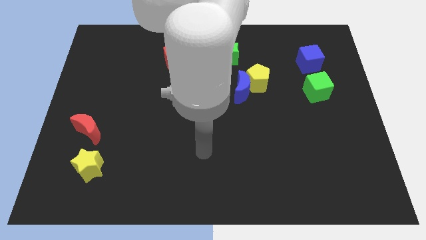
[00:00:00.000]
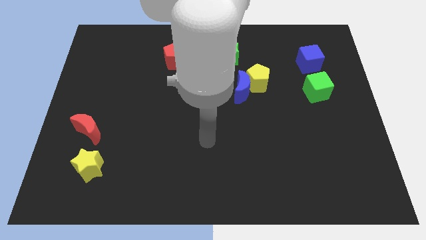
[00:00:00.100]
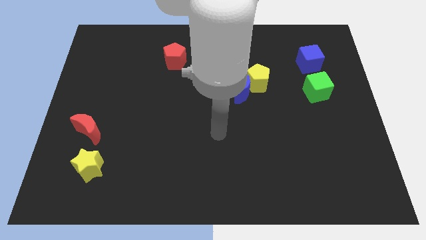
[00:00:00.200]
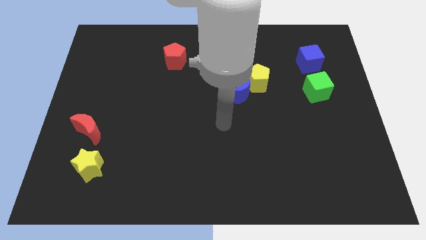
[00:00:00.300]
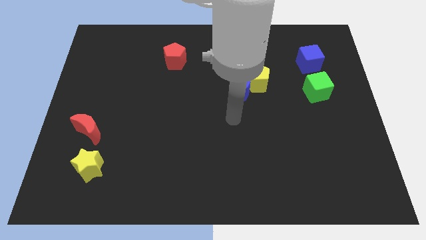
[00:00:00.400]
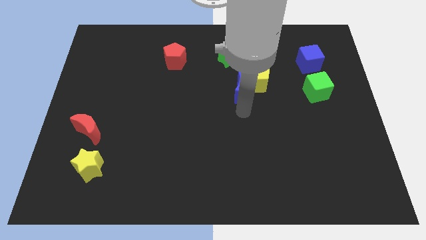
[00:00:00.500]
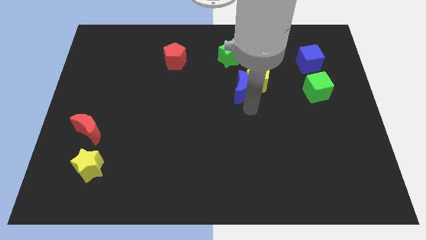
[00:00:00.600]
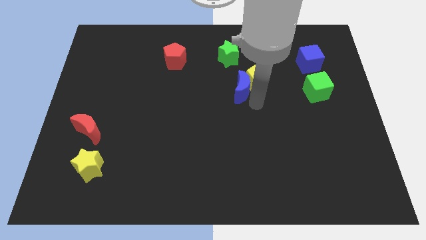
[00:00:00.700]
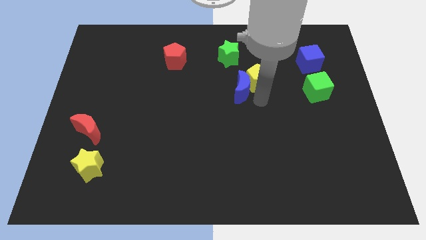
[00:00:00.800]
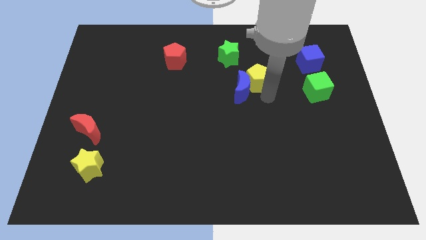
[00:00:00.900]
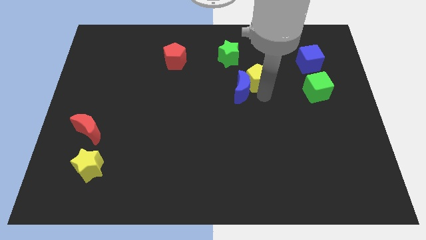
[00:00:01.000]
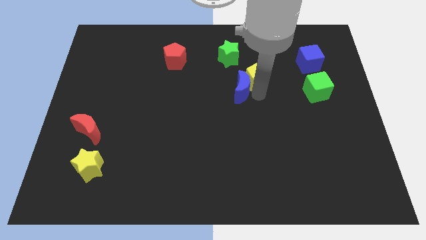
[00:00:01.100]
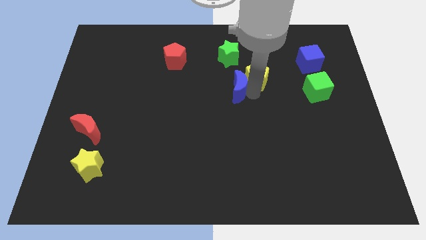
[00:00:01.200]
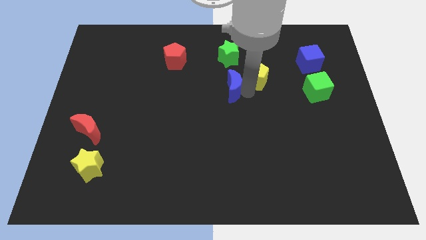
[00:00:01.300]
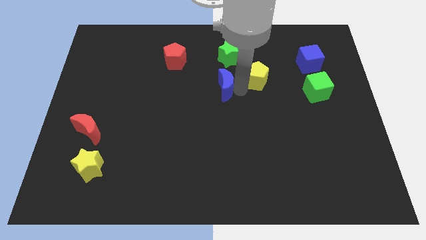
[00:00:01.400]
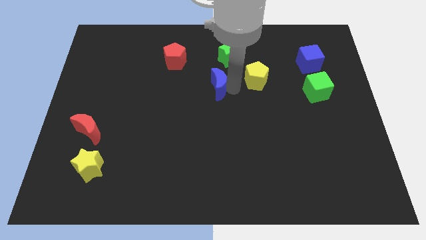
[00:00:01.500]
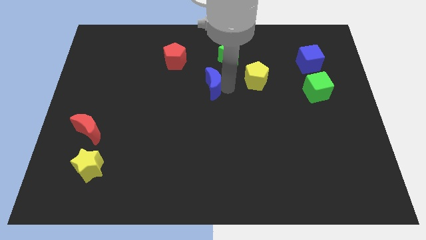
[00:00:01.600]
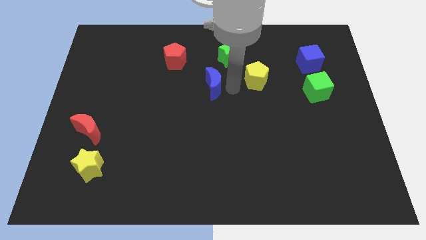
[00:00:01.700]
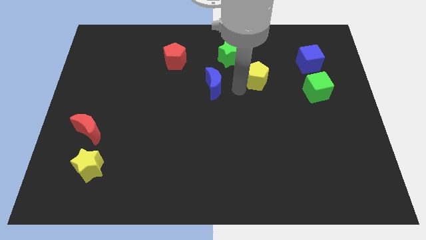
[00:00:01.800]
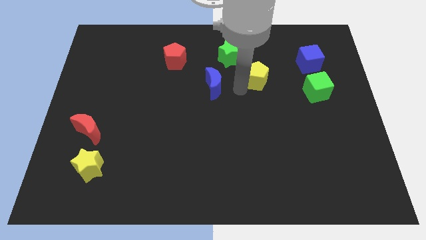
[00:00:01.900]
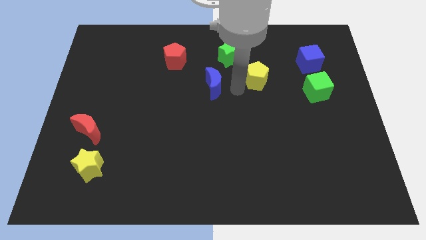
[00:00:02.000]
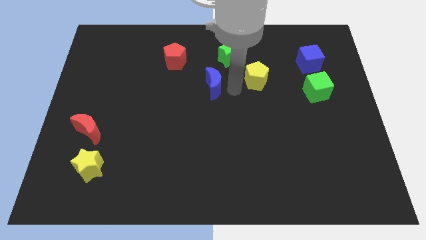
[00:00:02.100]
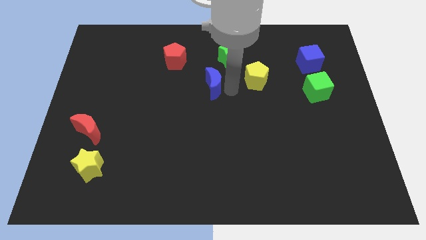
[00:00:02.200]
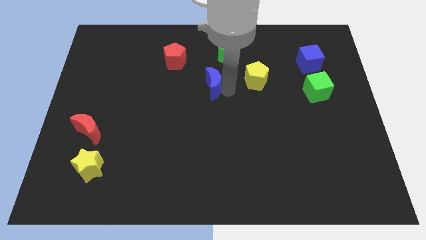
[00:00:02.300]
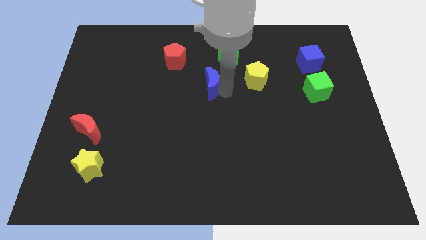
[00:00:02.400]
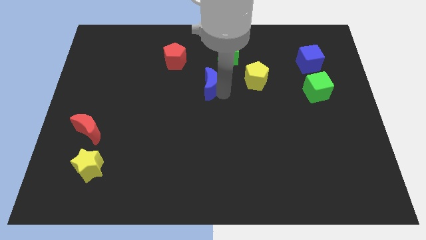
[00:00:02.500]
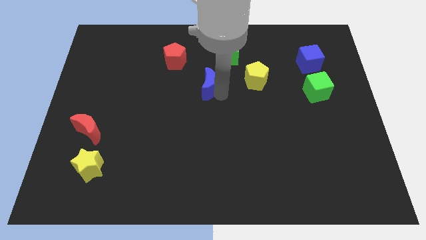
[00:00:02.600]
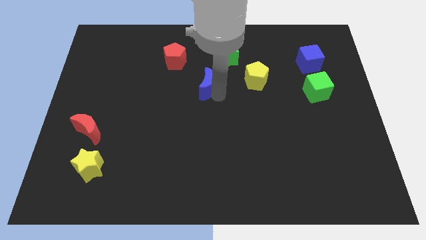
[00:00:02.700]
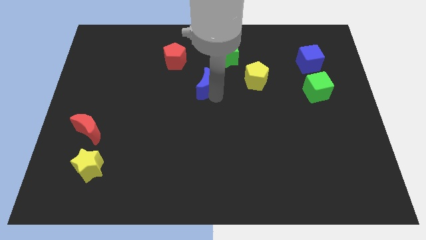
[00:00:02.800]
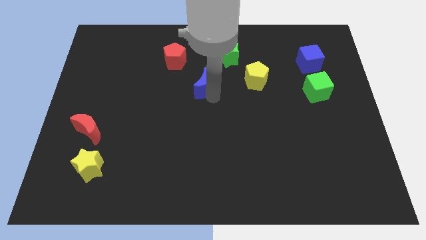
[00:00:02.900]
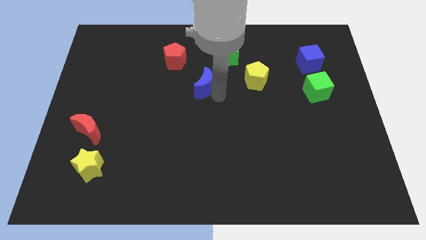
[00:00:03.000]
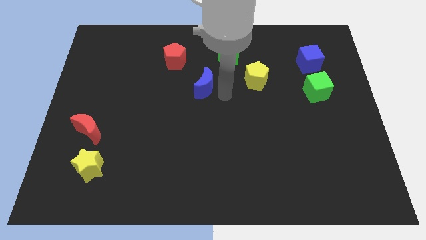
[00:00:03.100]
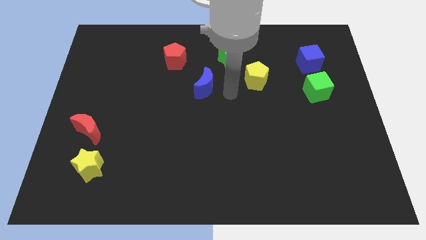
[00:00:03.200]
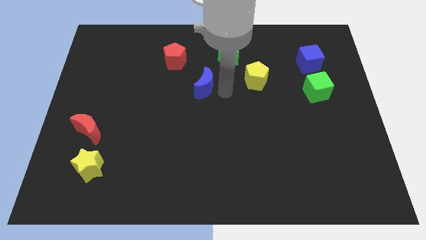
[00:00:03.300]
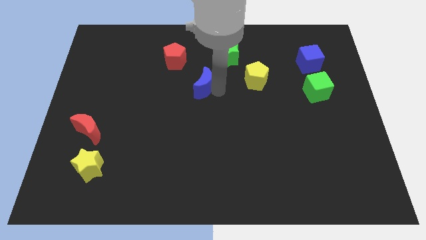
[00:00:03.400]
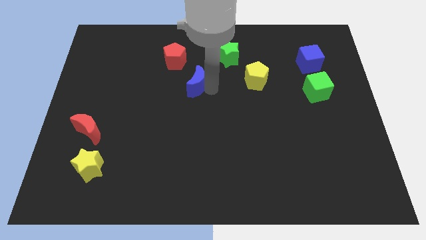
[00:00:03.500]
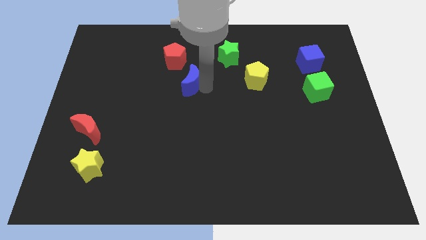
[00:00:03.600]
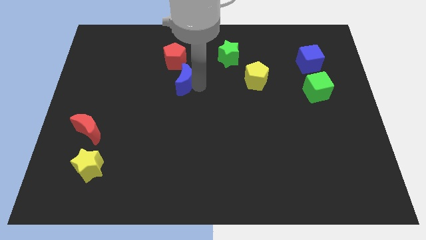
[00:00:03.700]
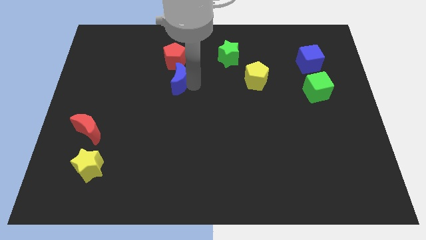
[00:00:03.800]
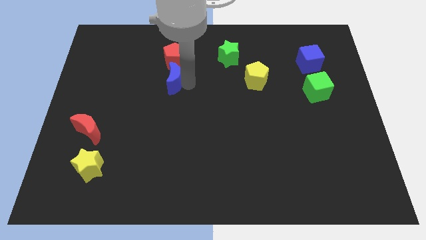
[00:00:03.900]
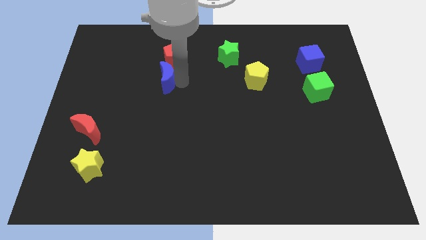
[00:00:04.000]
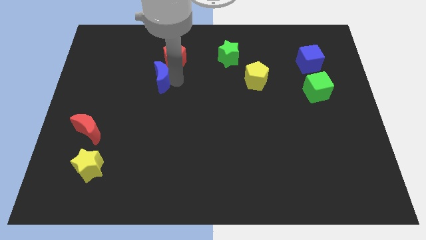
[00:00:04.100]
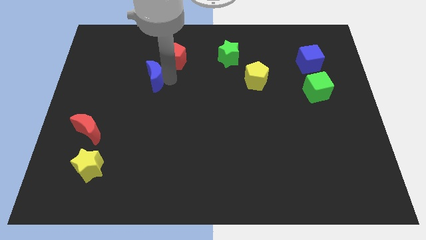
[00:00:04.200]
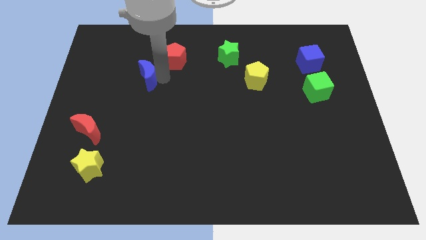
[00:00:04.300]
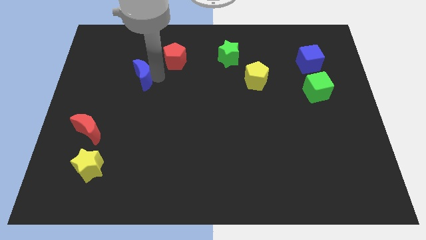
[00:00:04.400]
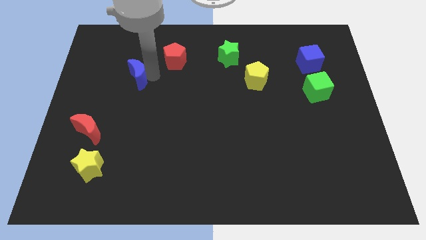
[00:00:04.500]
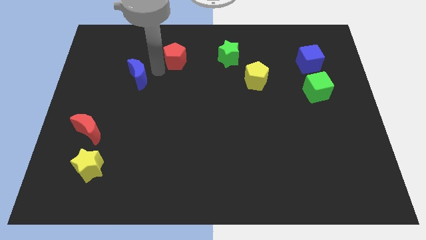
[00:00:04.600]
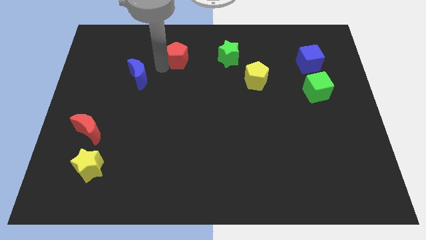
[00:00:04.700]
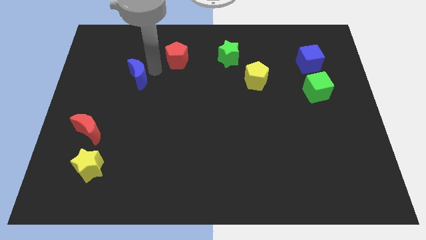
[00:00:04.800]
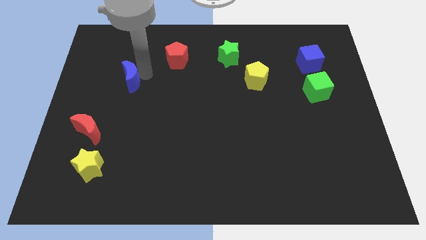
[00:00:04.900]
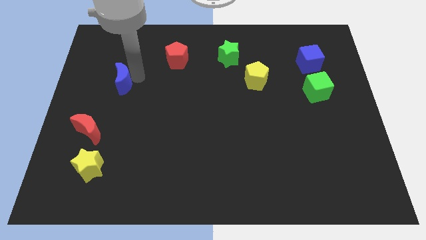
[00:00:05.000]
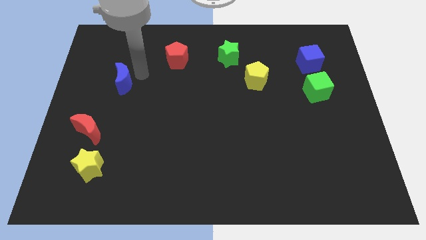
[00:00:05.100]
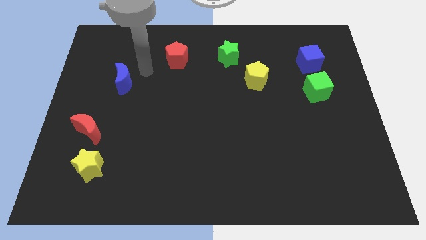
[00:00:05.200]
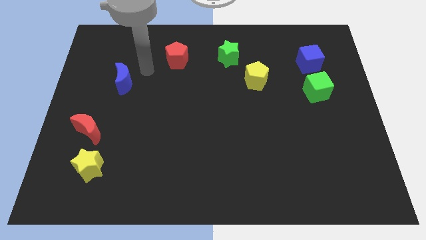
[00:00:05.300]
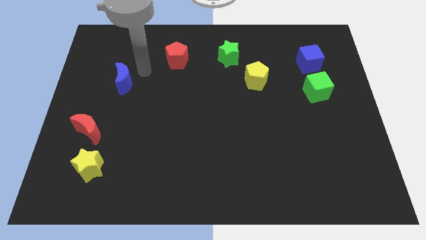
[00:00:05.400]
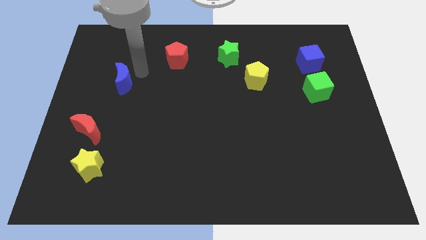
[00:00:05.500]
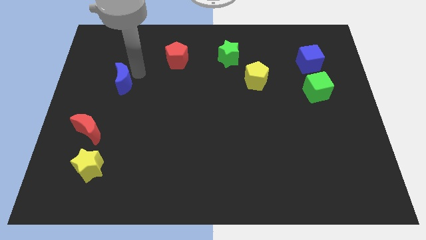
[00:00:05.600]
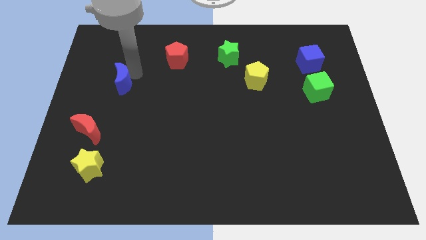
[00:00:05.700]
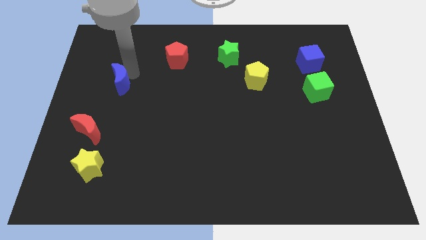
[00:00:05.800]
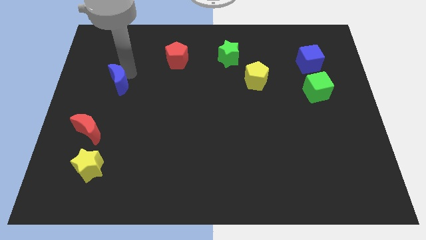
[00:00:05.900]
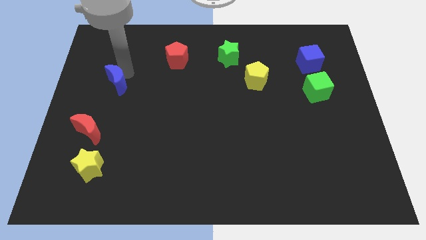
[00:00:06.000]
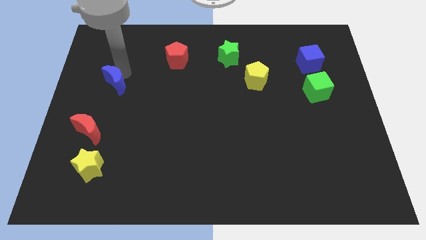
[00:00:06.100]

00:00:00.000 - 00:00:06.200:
push the blue moon above the red moon

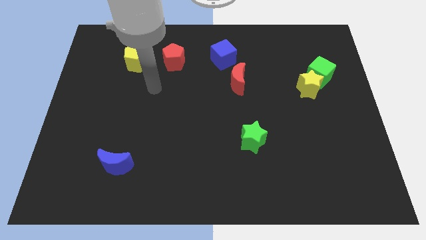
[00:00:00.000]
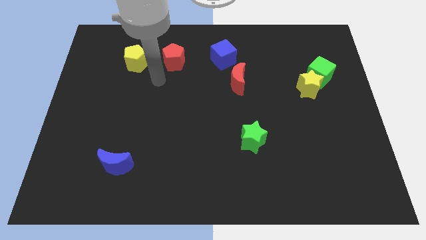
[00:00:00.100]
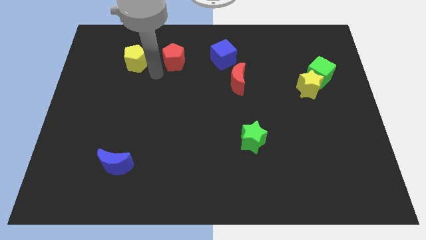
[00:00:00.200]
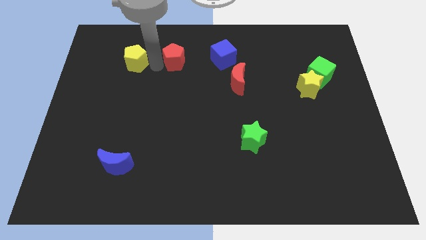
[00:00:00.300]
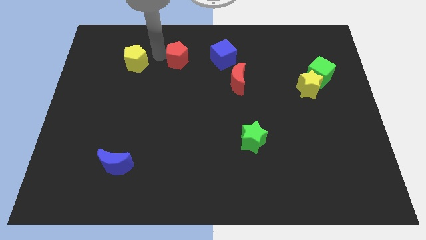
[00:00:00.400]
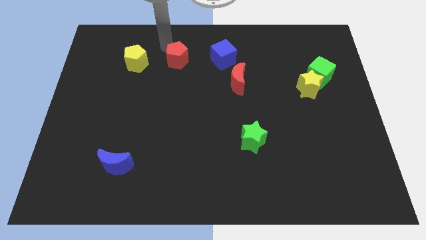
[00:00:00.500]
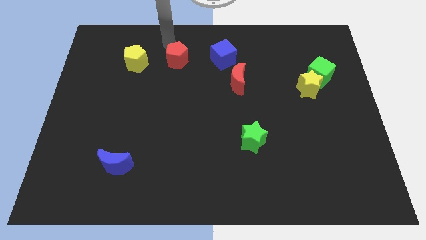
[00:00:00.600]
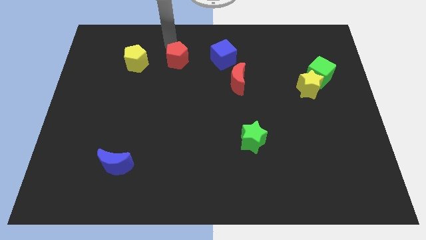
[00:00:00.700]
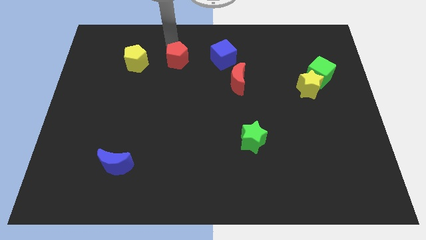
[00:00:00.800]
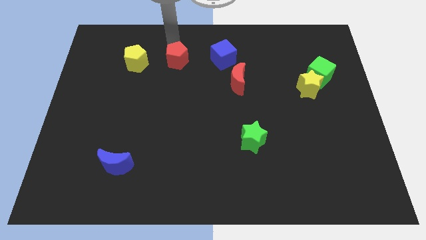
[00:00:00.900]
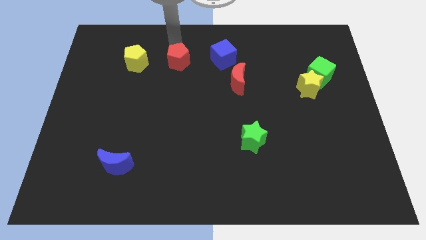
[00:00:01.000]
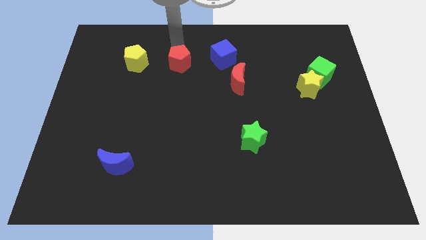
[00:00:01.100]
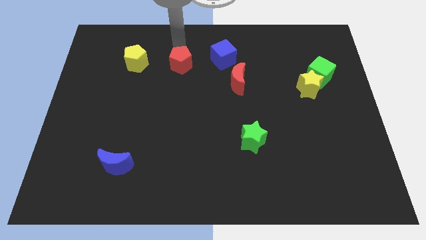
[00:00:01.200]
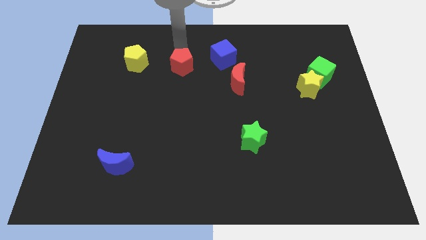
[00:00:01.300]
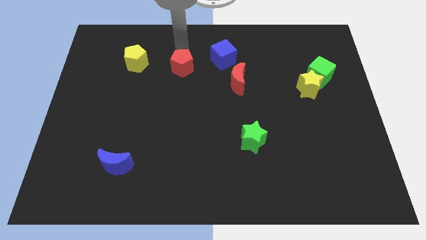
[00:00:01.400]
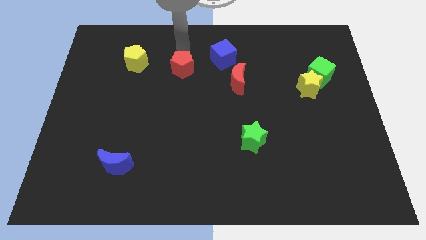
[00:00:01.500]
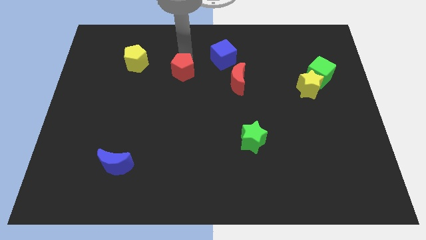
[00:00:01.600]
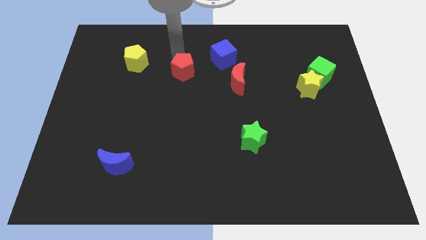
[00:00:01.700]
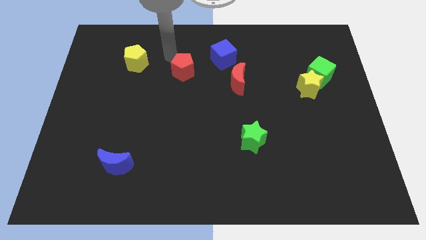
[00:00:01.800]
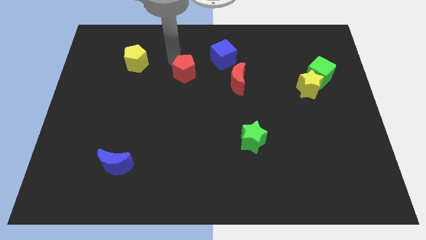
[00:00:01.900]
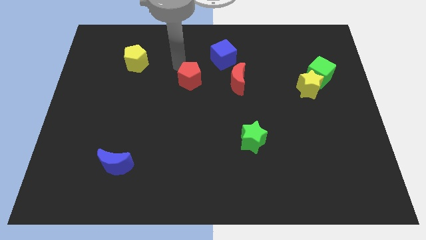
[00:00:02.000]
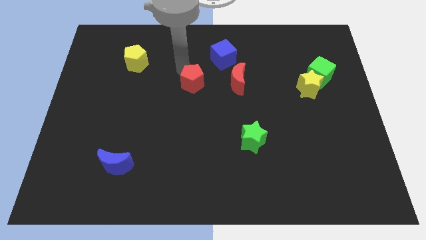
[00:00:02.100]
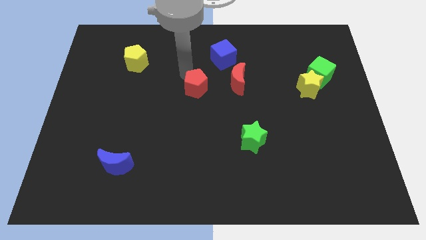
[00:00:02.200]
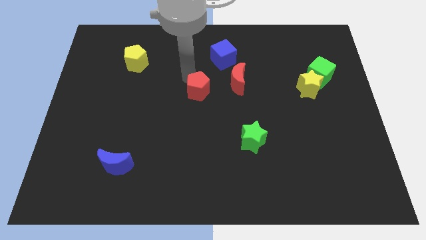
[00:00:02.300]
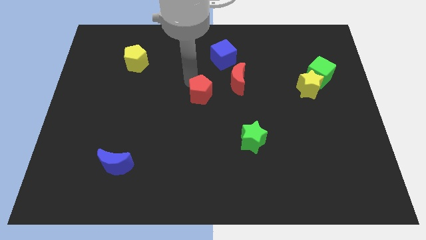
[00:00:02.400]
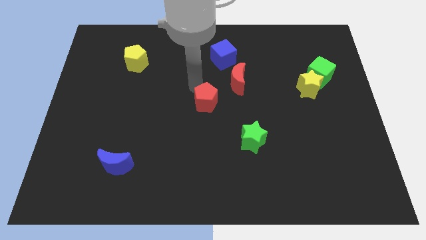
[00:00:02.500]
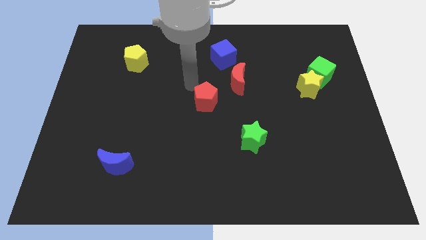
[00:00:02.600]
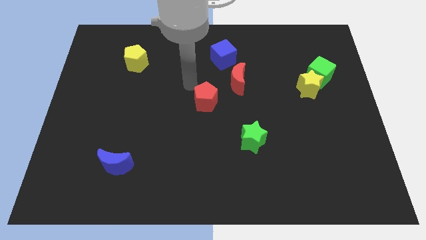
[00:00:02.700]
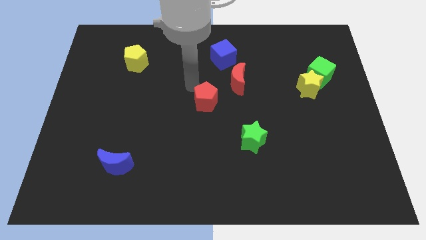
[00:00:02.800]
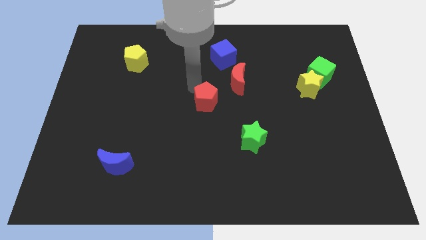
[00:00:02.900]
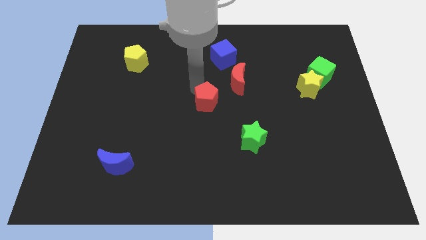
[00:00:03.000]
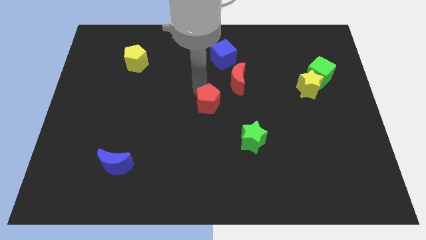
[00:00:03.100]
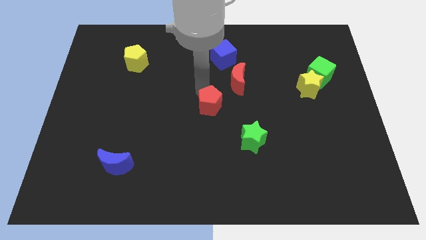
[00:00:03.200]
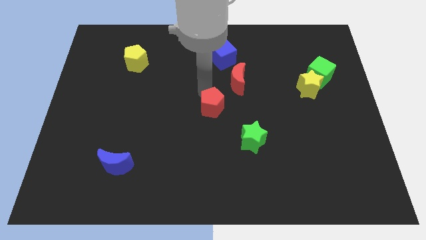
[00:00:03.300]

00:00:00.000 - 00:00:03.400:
slide the red pentagon to the top left side of the green star
